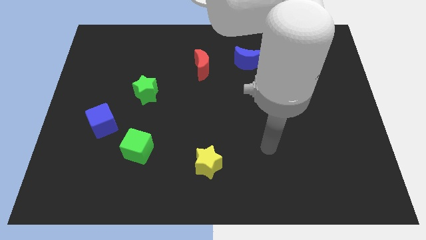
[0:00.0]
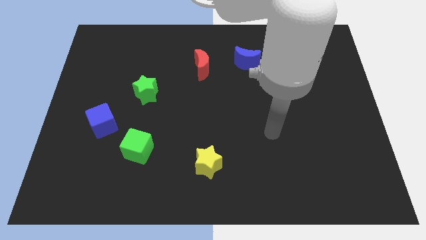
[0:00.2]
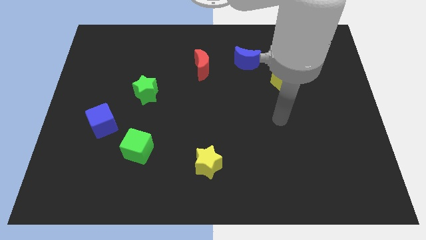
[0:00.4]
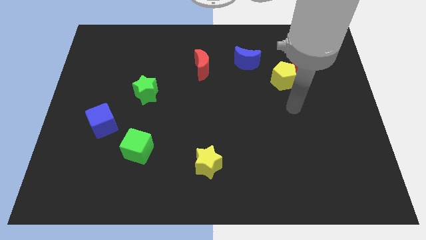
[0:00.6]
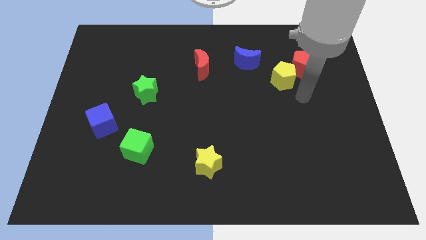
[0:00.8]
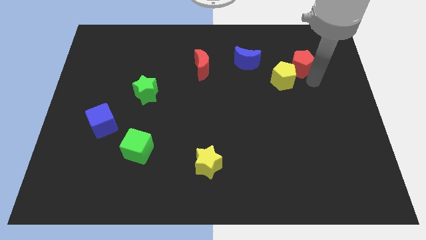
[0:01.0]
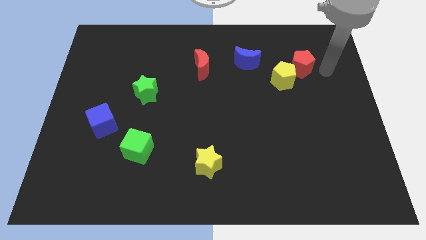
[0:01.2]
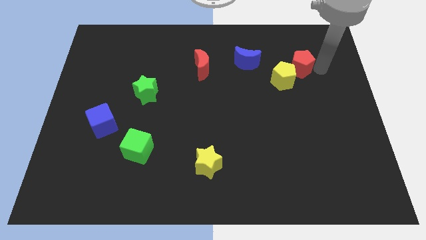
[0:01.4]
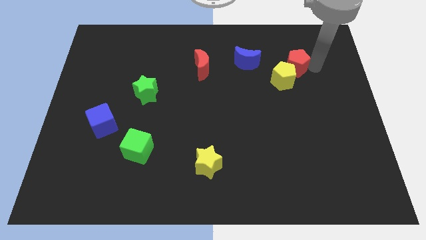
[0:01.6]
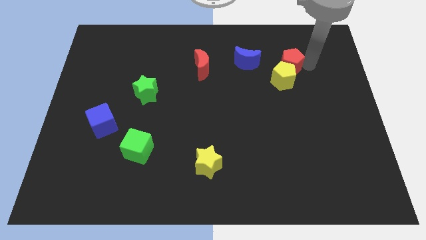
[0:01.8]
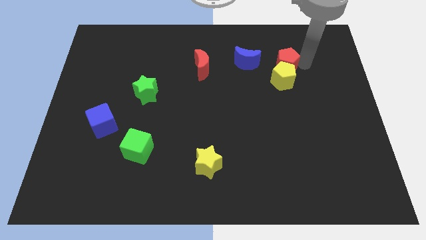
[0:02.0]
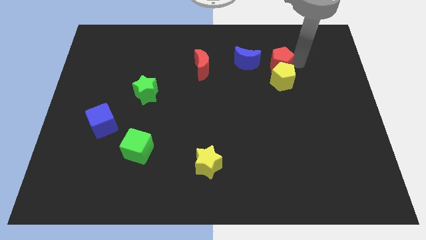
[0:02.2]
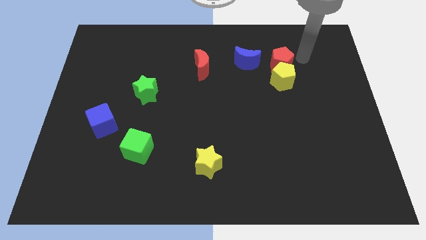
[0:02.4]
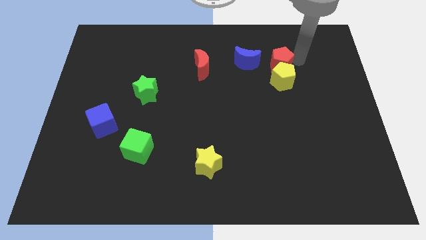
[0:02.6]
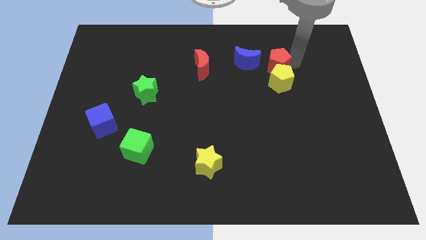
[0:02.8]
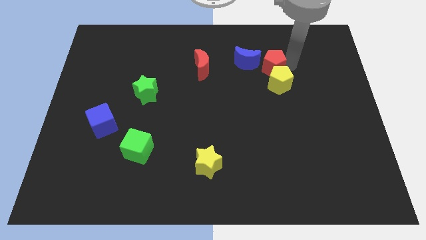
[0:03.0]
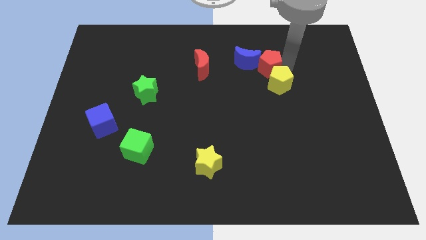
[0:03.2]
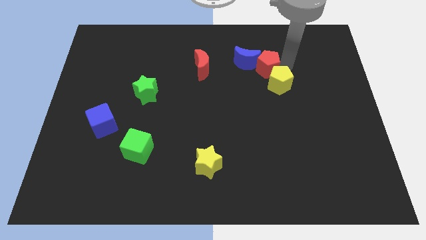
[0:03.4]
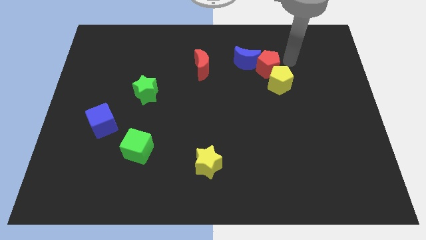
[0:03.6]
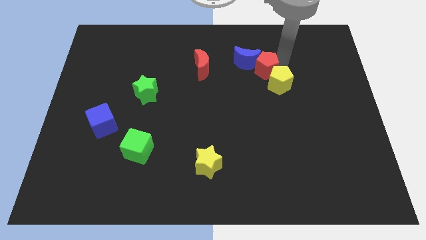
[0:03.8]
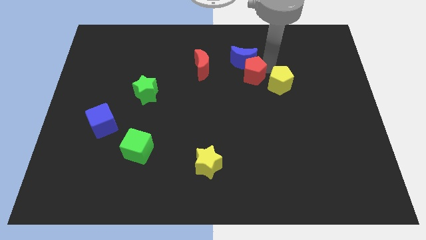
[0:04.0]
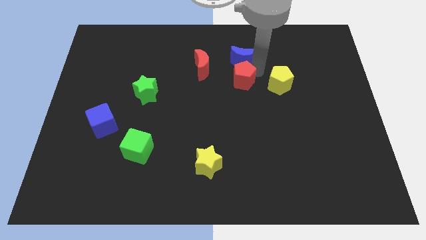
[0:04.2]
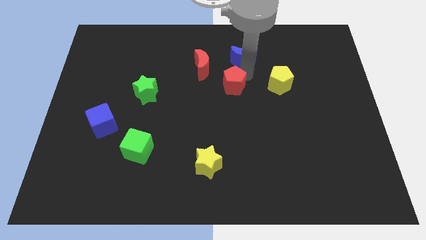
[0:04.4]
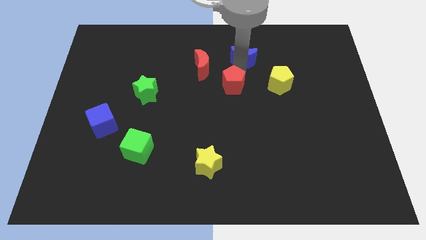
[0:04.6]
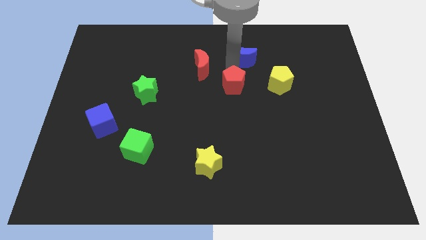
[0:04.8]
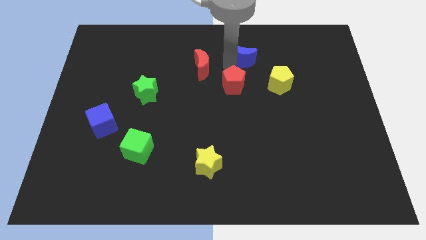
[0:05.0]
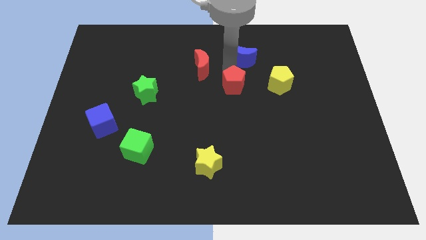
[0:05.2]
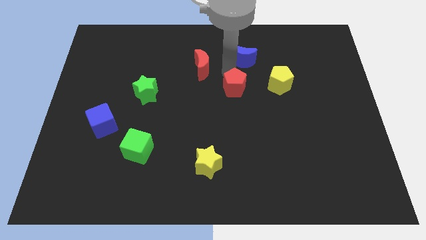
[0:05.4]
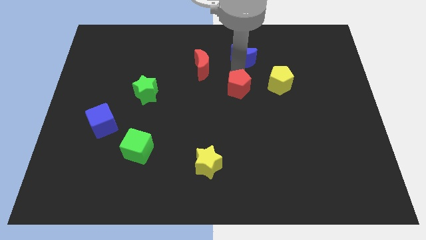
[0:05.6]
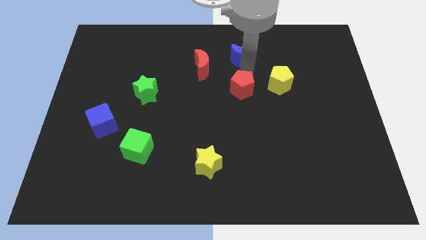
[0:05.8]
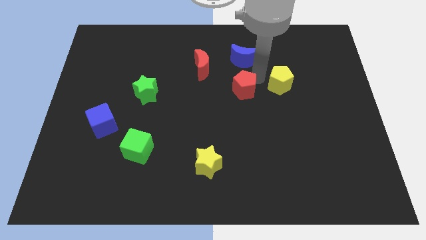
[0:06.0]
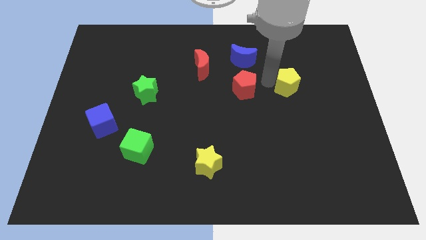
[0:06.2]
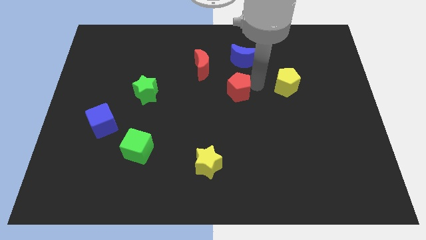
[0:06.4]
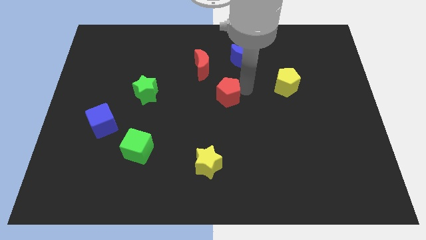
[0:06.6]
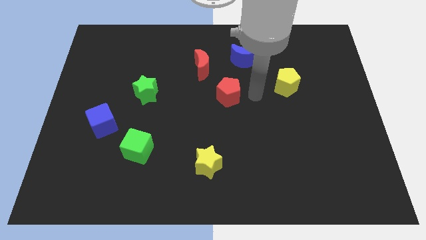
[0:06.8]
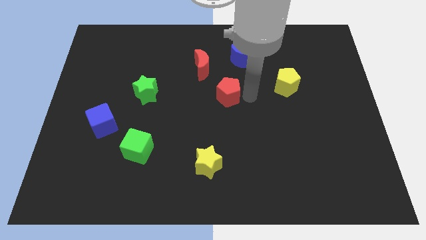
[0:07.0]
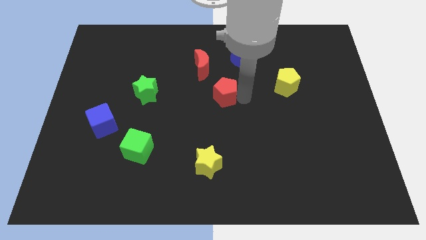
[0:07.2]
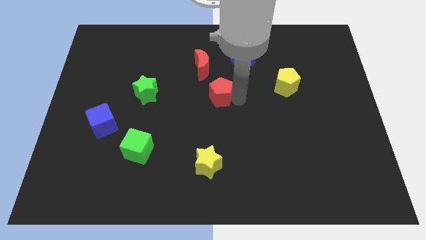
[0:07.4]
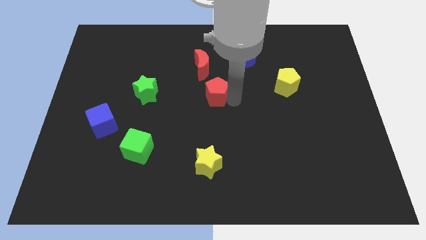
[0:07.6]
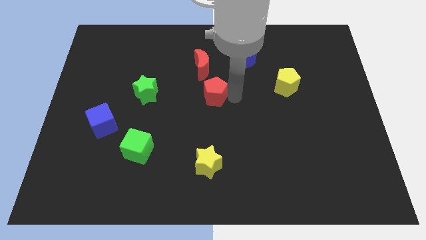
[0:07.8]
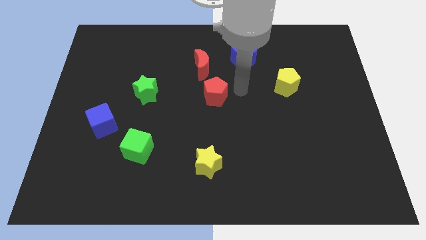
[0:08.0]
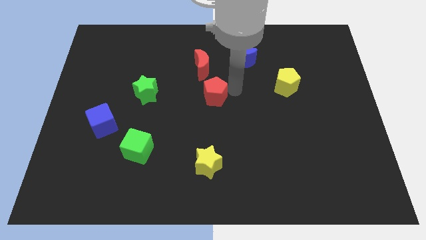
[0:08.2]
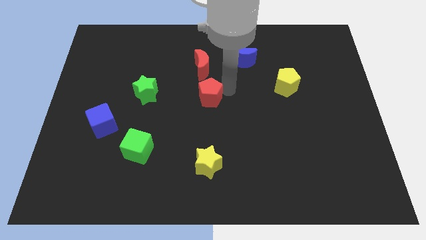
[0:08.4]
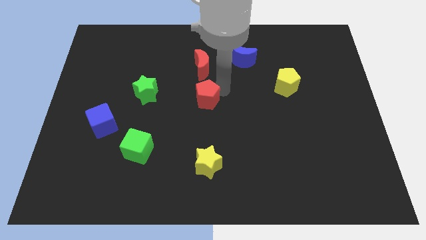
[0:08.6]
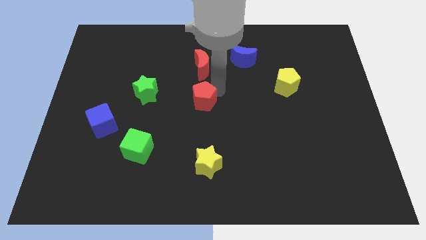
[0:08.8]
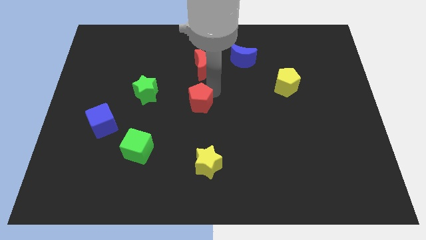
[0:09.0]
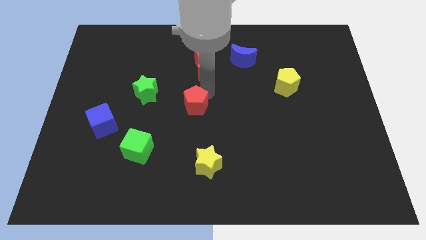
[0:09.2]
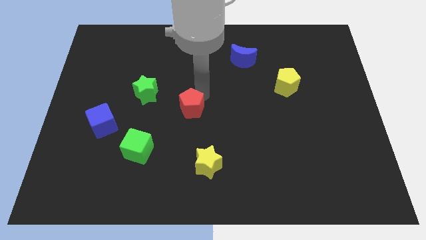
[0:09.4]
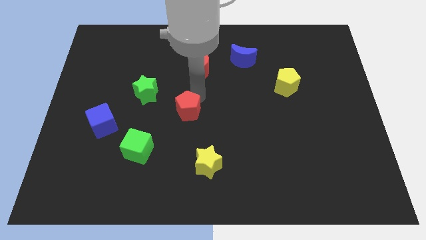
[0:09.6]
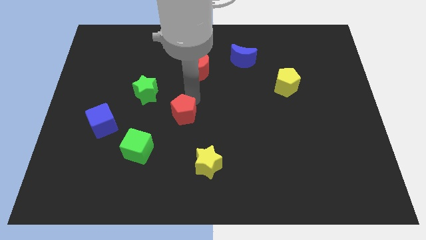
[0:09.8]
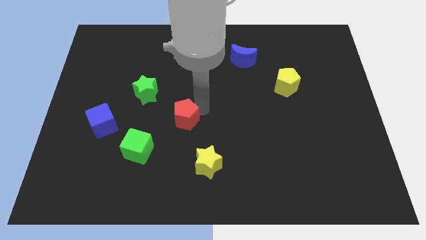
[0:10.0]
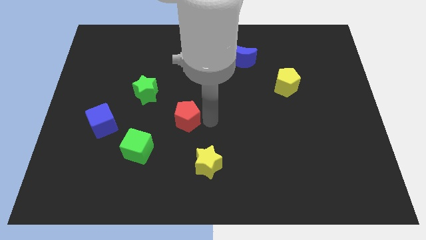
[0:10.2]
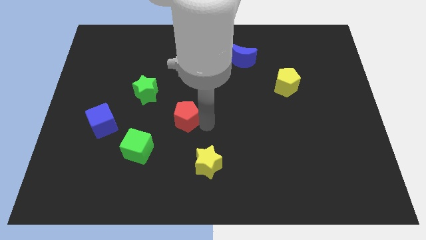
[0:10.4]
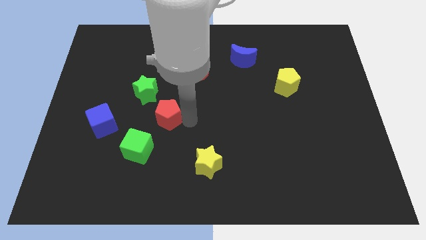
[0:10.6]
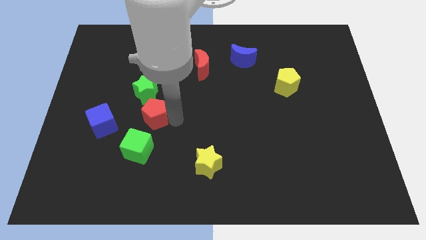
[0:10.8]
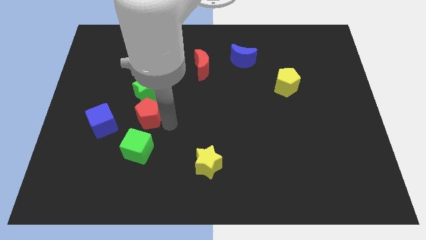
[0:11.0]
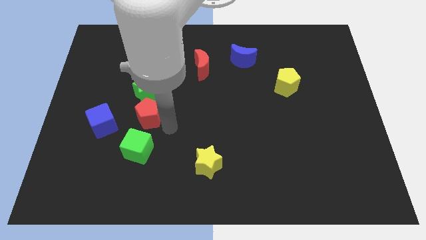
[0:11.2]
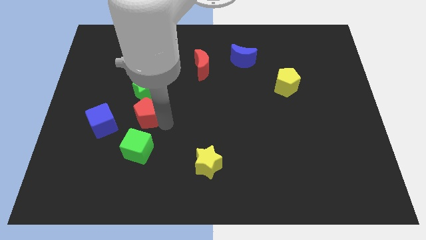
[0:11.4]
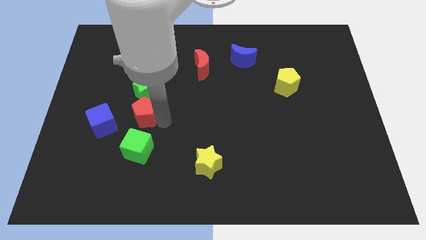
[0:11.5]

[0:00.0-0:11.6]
push the red pentagon diagonally up and to the right of the blue cube

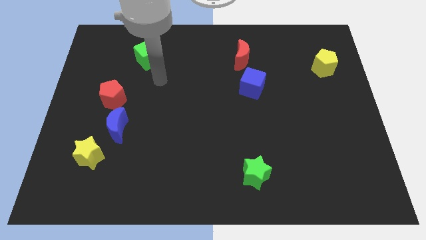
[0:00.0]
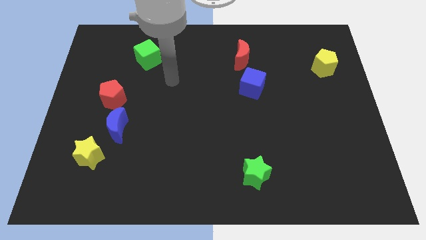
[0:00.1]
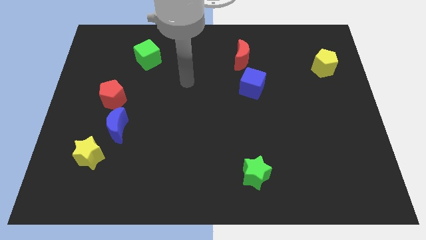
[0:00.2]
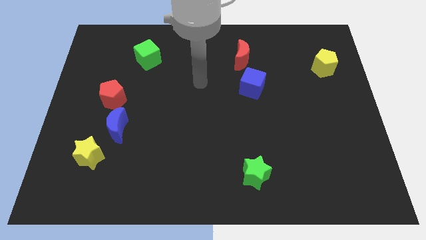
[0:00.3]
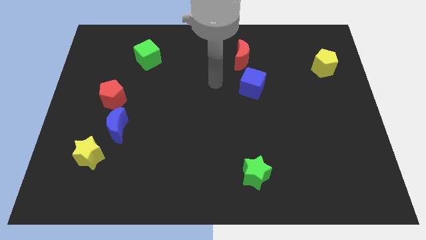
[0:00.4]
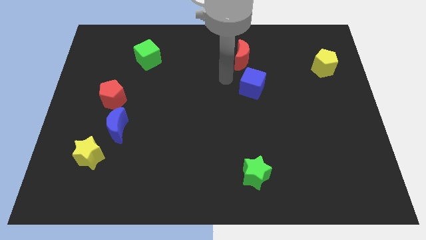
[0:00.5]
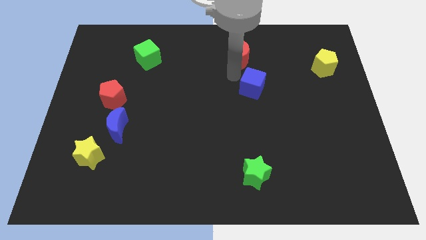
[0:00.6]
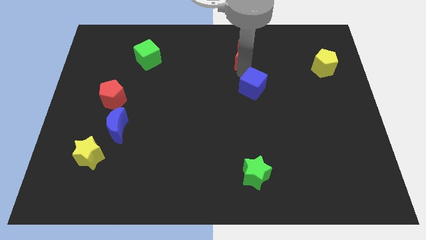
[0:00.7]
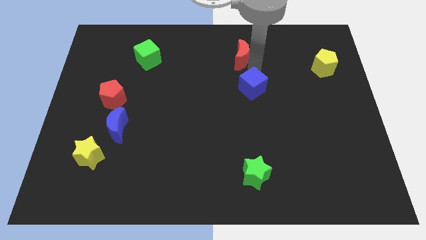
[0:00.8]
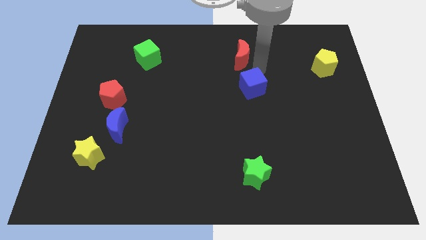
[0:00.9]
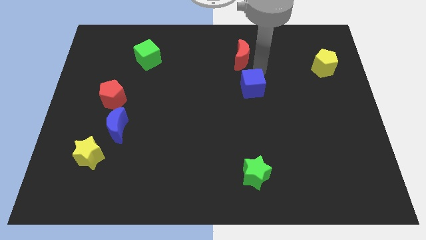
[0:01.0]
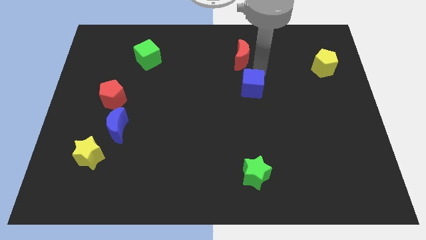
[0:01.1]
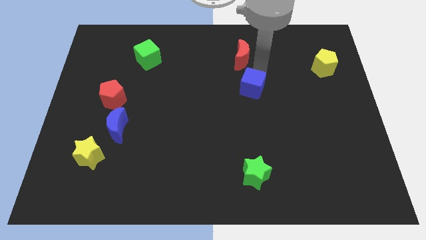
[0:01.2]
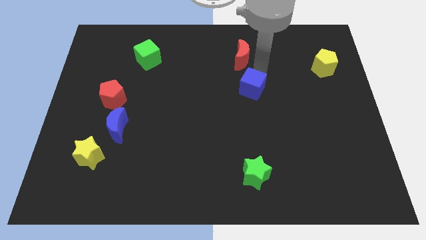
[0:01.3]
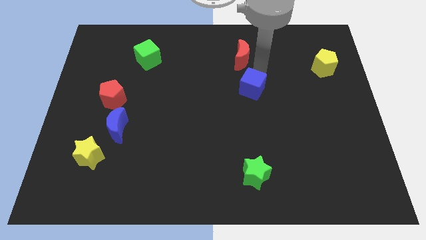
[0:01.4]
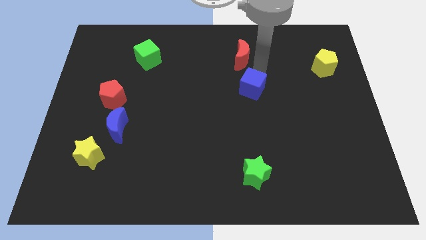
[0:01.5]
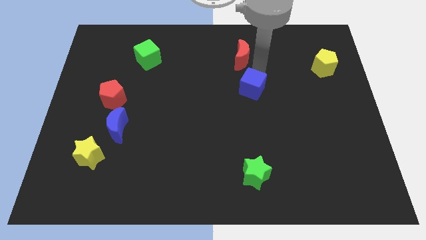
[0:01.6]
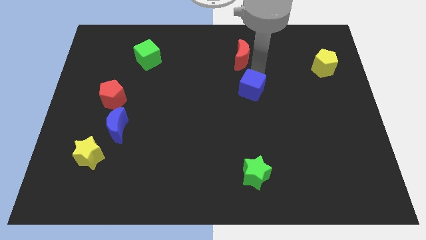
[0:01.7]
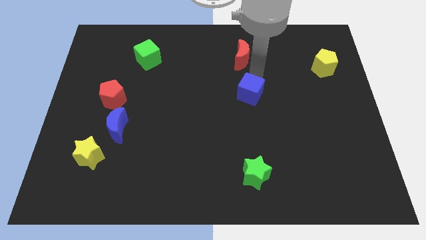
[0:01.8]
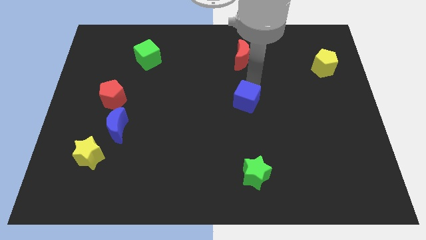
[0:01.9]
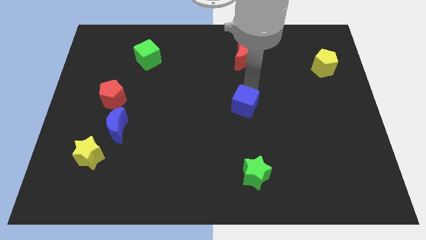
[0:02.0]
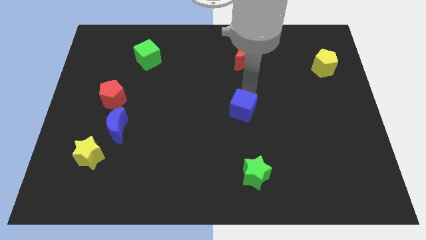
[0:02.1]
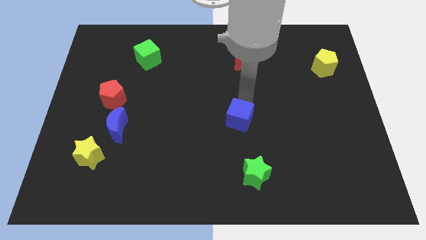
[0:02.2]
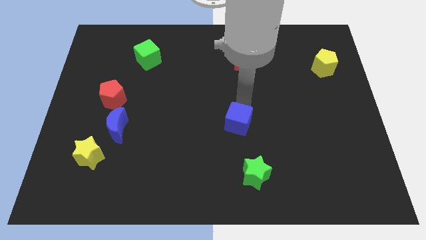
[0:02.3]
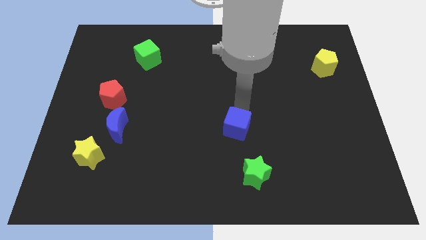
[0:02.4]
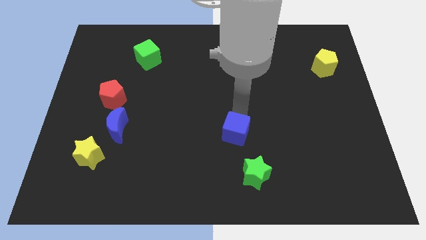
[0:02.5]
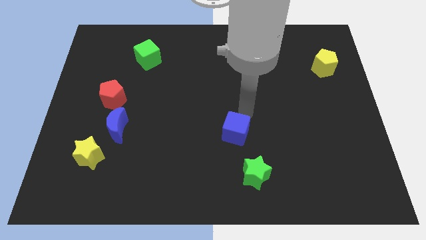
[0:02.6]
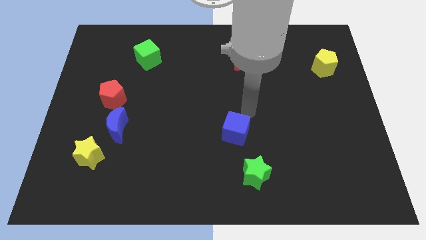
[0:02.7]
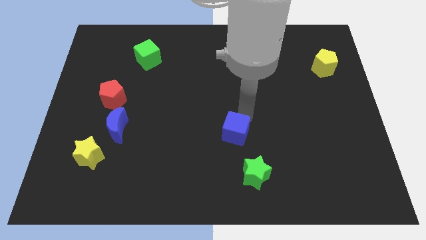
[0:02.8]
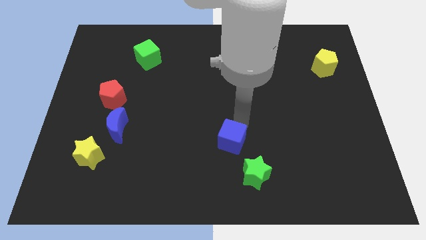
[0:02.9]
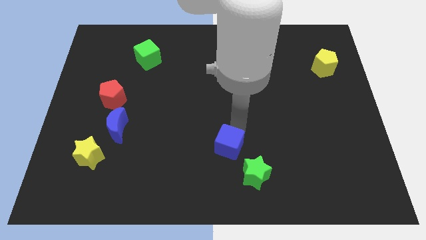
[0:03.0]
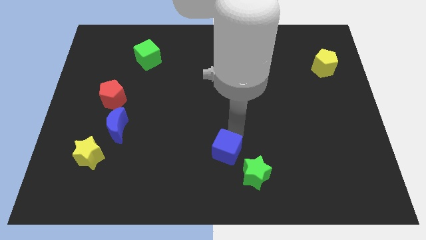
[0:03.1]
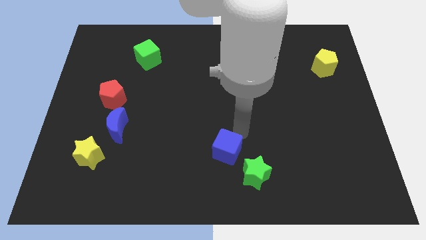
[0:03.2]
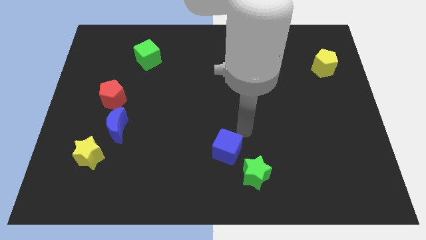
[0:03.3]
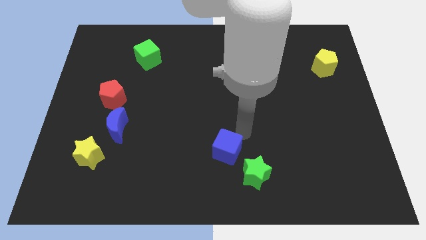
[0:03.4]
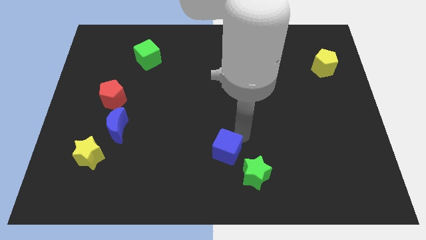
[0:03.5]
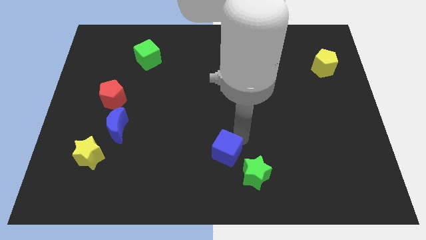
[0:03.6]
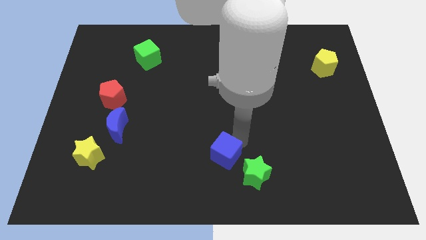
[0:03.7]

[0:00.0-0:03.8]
move the blue cube left of the green star
